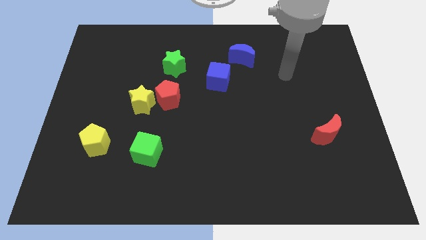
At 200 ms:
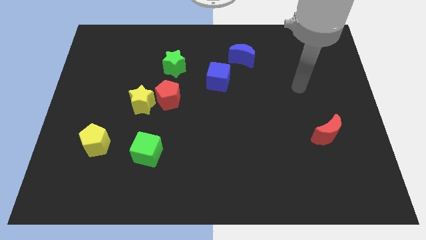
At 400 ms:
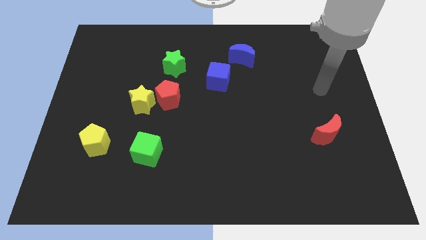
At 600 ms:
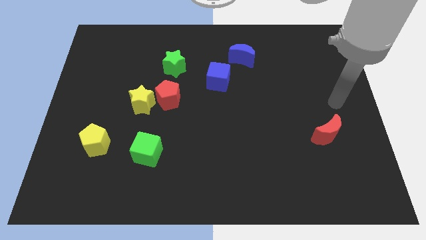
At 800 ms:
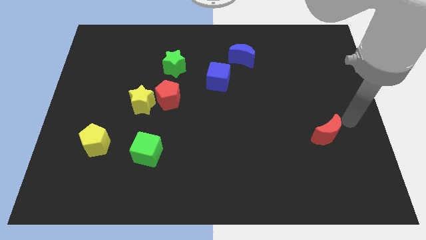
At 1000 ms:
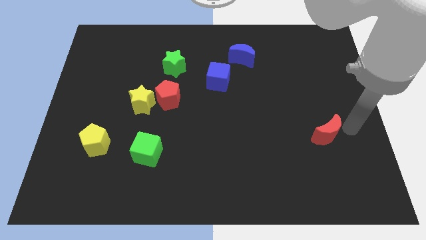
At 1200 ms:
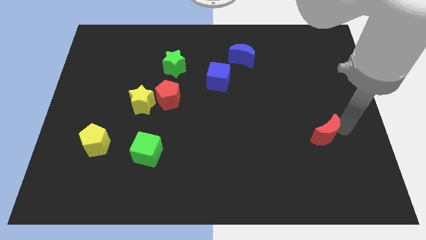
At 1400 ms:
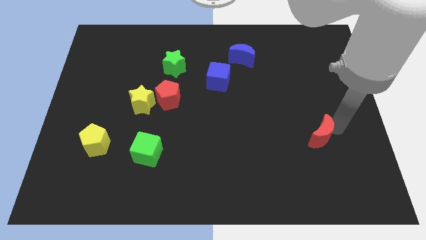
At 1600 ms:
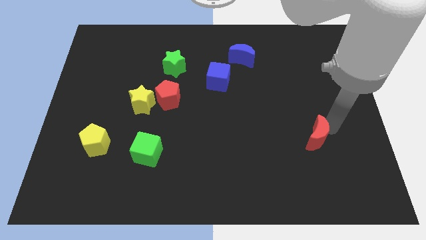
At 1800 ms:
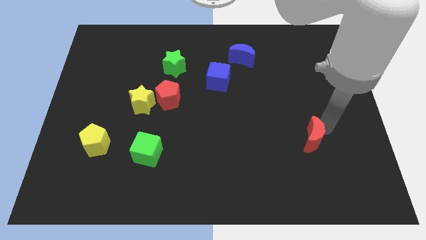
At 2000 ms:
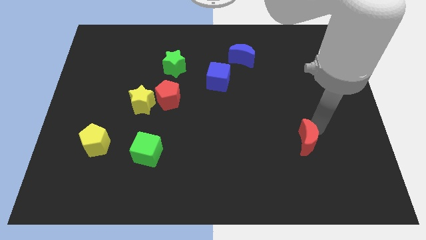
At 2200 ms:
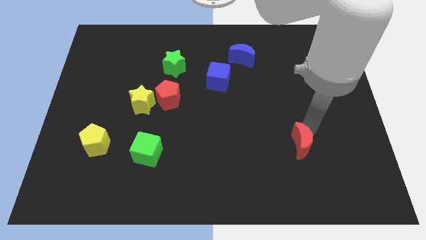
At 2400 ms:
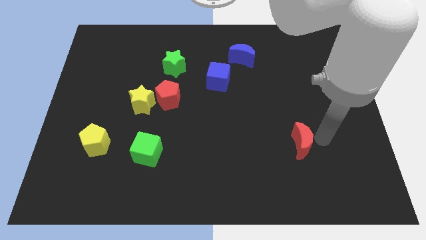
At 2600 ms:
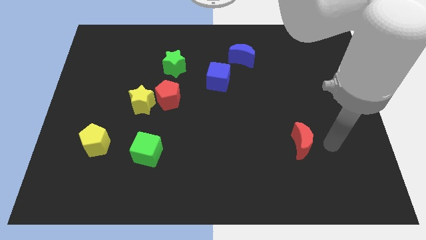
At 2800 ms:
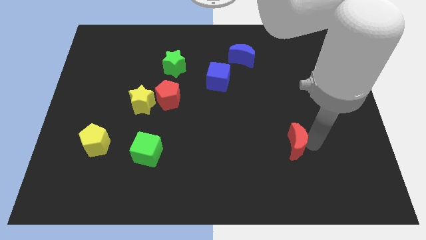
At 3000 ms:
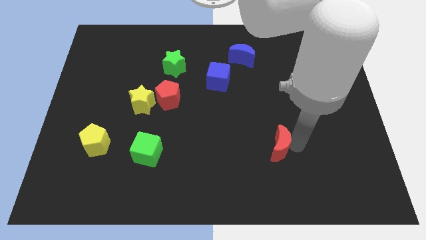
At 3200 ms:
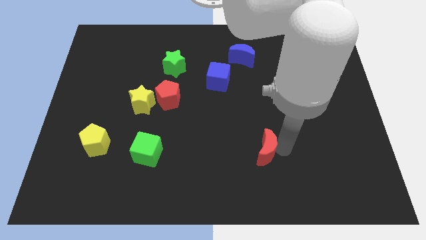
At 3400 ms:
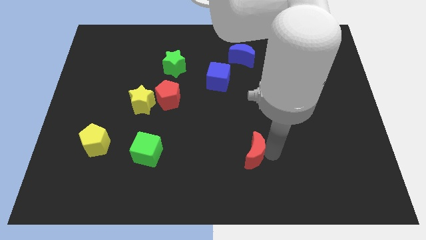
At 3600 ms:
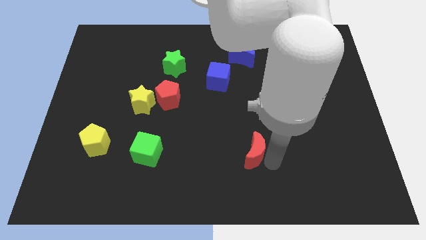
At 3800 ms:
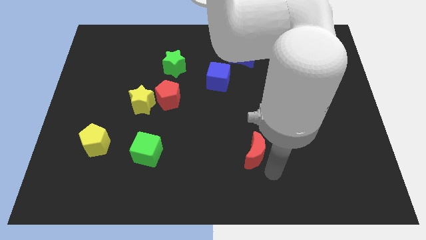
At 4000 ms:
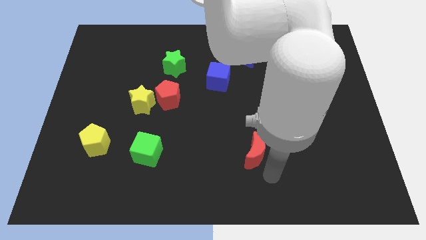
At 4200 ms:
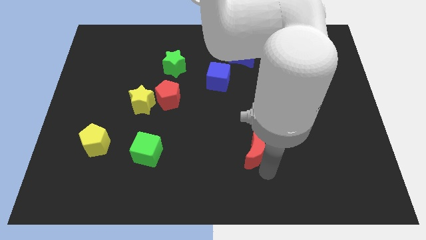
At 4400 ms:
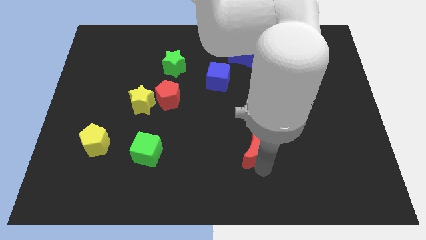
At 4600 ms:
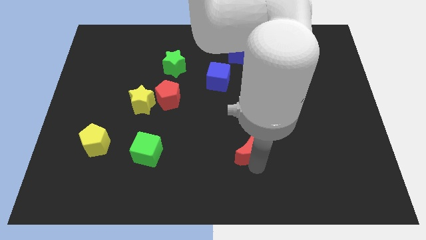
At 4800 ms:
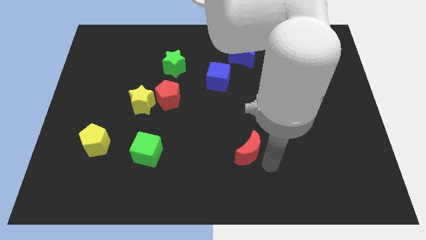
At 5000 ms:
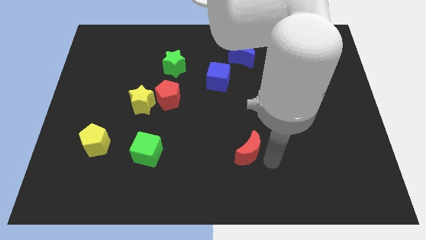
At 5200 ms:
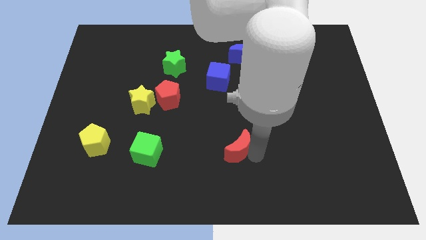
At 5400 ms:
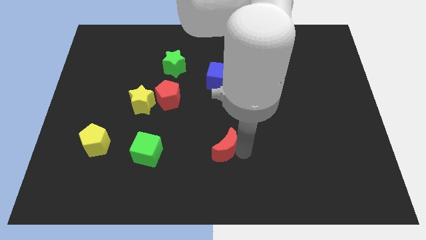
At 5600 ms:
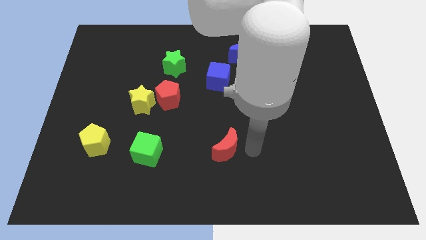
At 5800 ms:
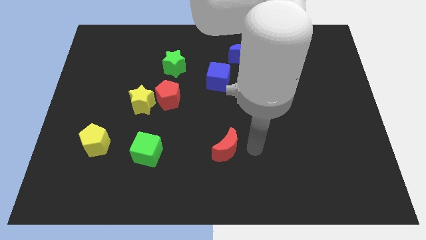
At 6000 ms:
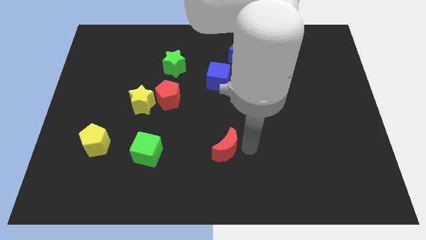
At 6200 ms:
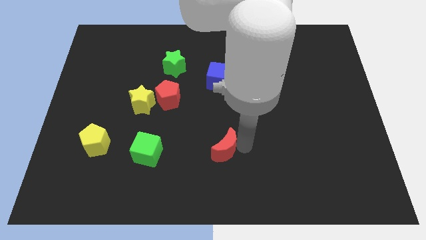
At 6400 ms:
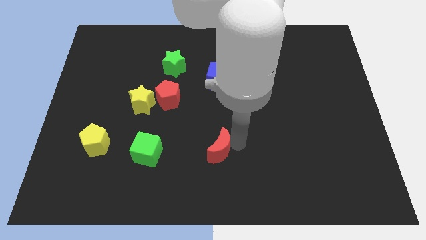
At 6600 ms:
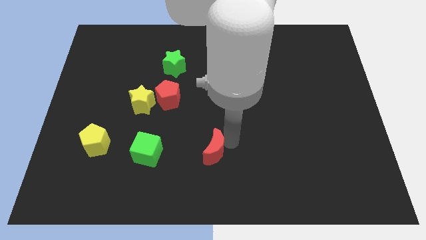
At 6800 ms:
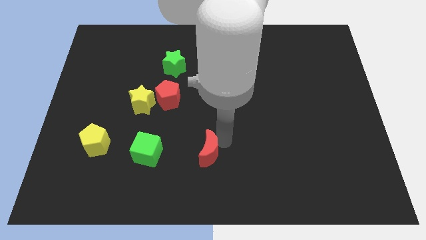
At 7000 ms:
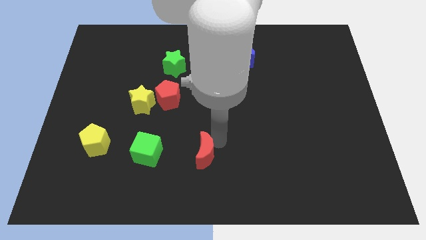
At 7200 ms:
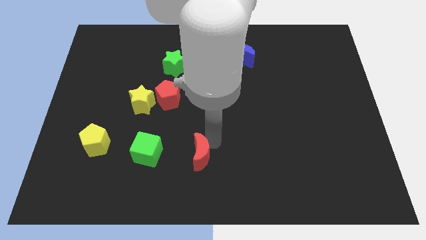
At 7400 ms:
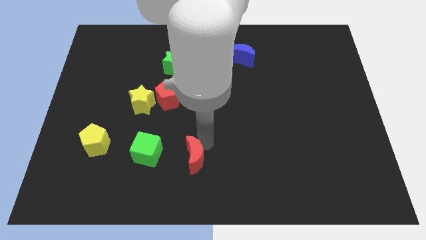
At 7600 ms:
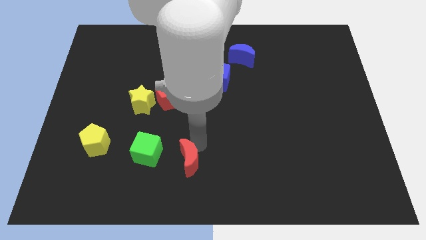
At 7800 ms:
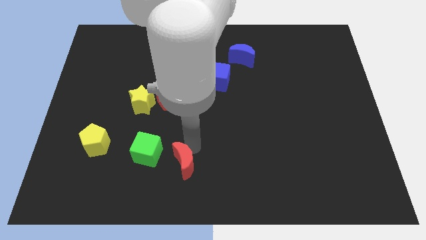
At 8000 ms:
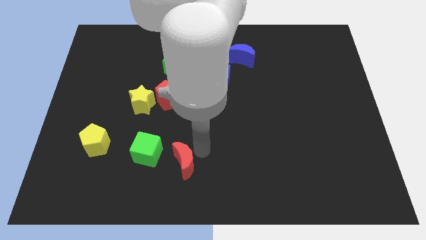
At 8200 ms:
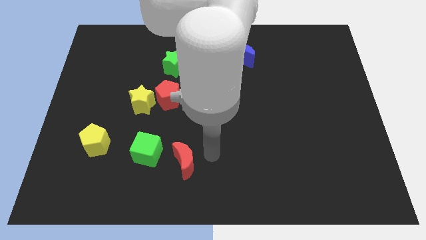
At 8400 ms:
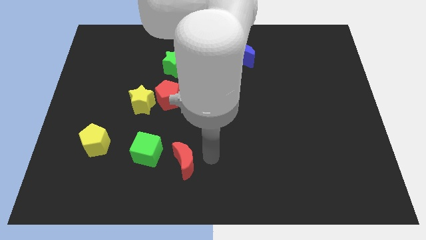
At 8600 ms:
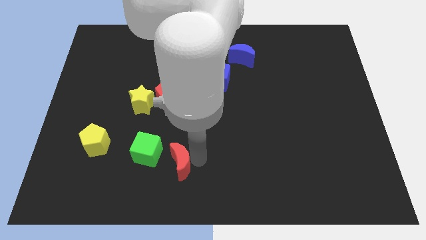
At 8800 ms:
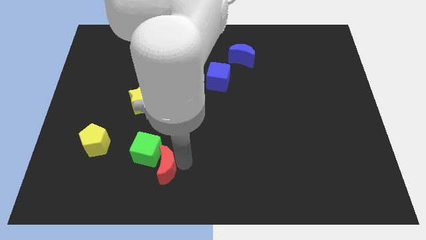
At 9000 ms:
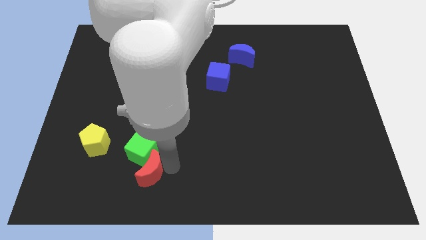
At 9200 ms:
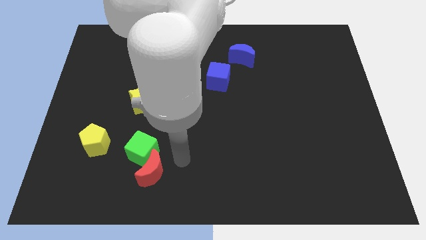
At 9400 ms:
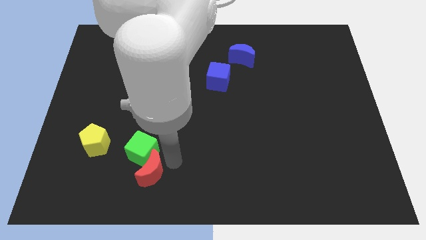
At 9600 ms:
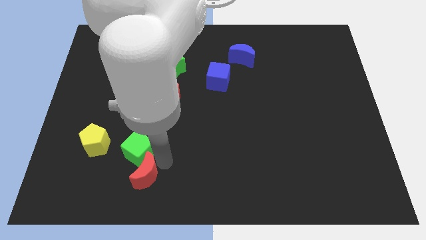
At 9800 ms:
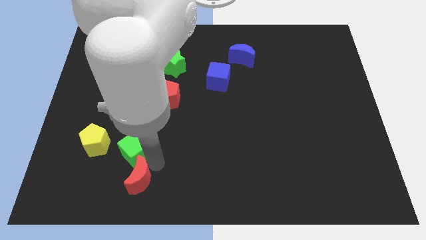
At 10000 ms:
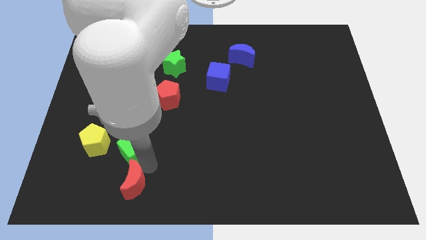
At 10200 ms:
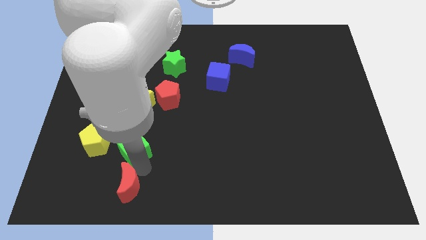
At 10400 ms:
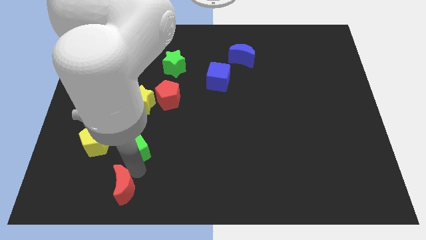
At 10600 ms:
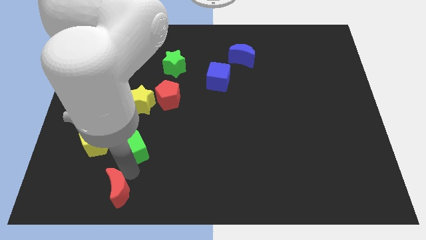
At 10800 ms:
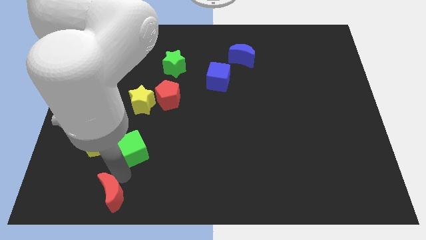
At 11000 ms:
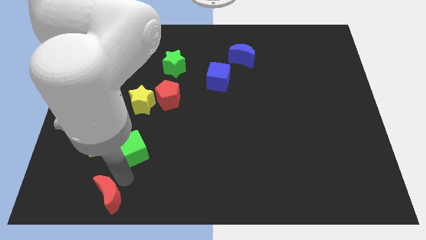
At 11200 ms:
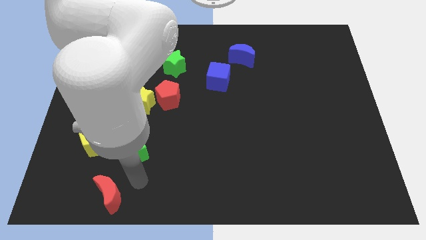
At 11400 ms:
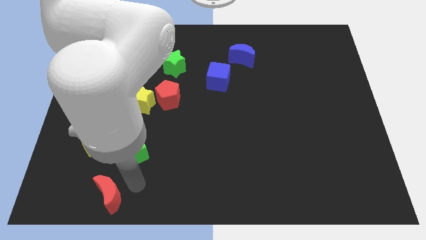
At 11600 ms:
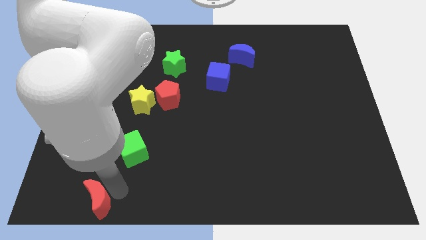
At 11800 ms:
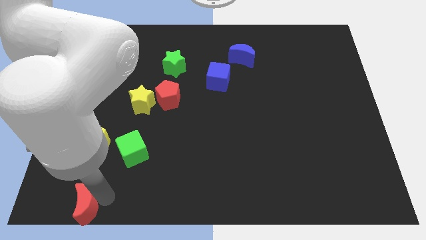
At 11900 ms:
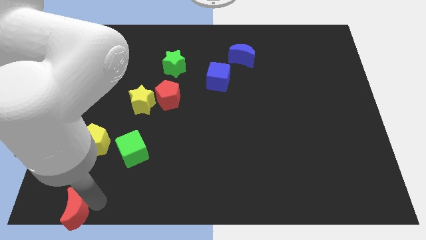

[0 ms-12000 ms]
slide the red moon to the lower left corner

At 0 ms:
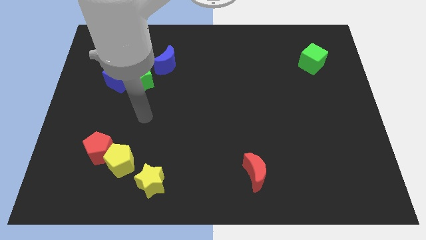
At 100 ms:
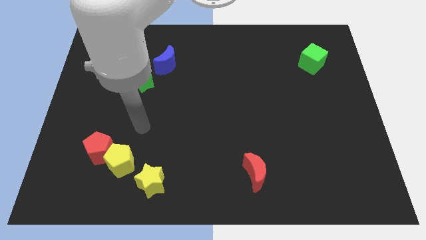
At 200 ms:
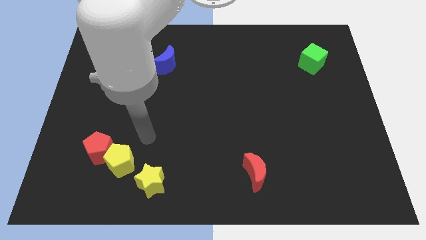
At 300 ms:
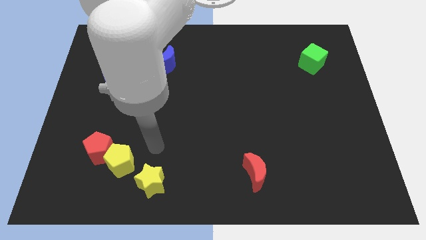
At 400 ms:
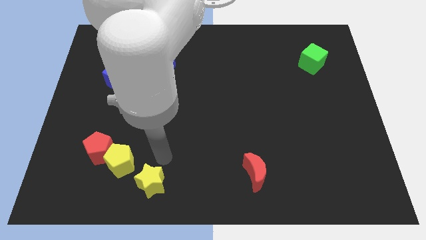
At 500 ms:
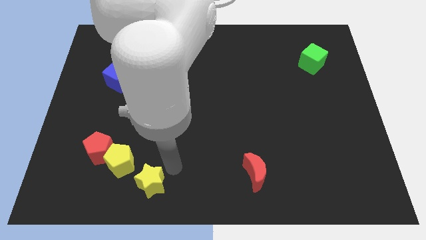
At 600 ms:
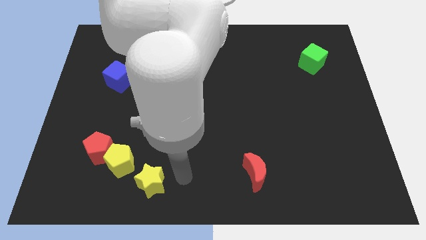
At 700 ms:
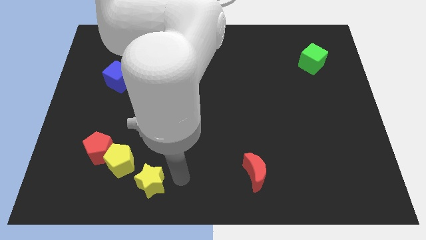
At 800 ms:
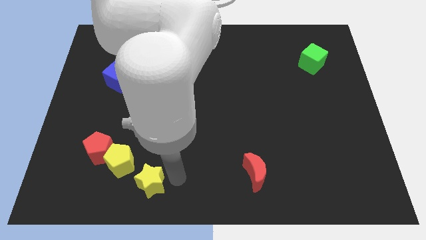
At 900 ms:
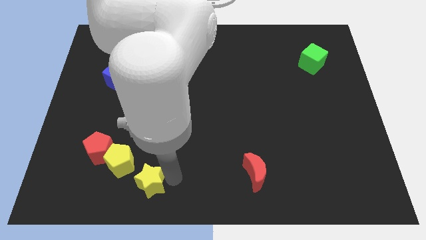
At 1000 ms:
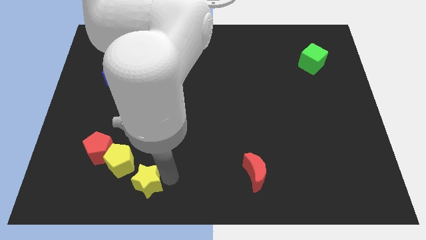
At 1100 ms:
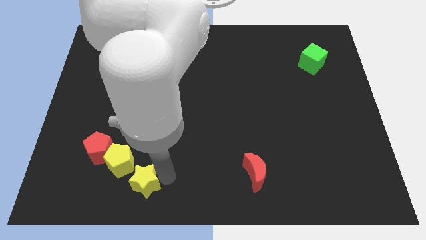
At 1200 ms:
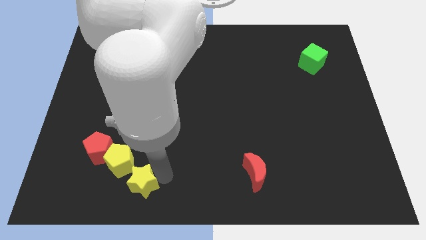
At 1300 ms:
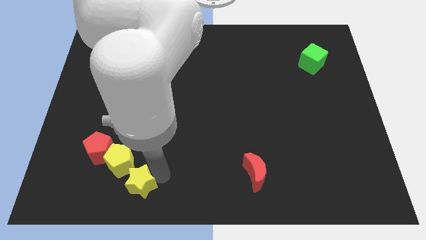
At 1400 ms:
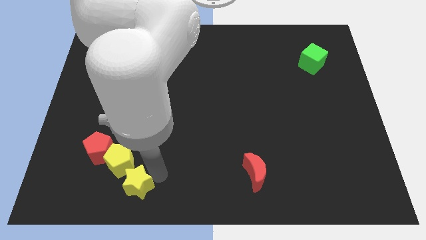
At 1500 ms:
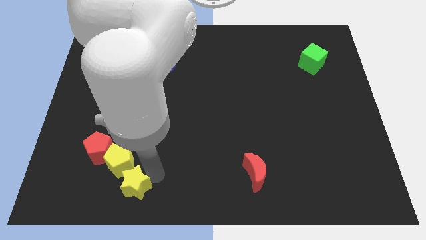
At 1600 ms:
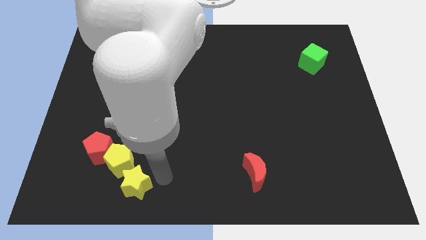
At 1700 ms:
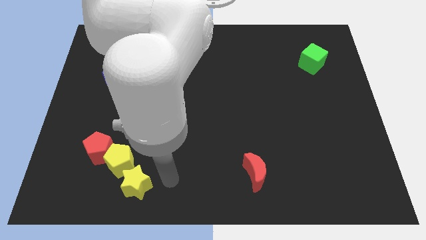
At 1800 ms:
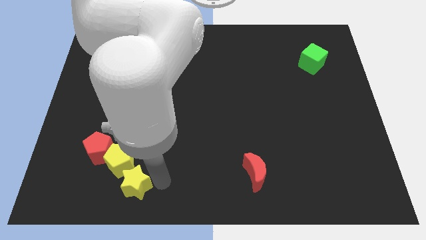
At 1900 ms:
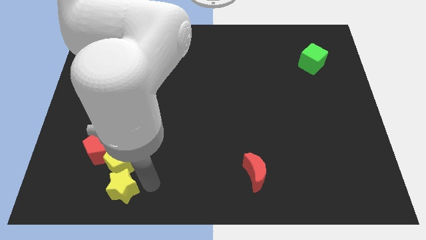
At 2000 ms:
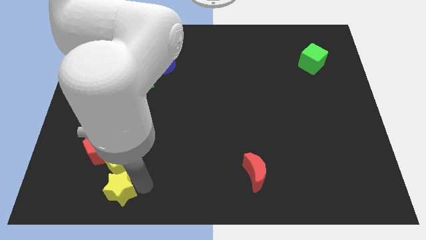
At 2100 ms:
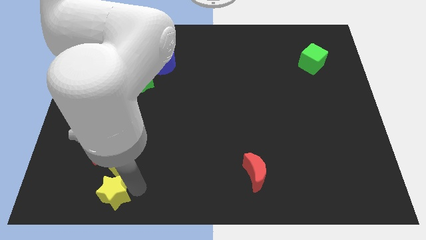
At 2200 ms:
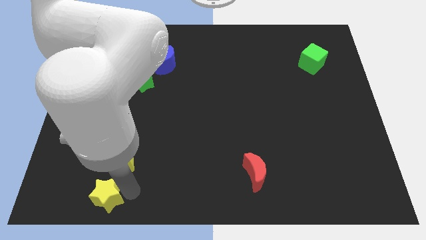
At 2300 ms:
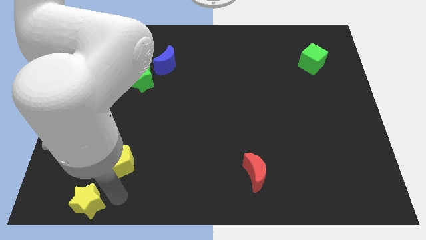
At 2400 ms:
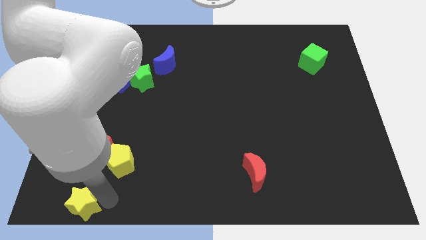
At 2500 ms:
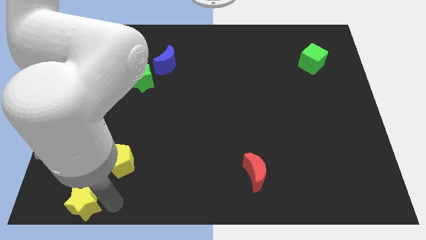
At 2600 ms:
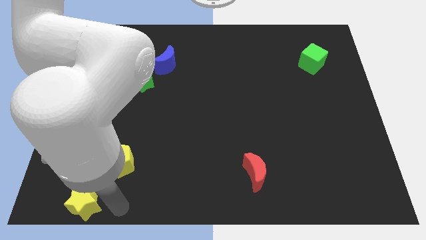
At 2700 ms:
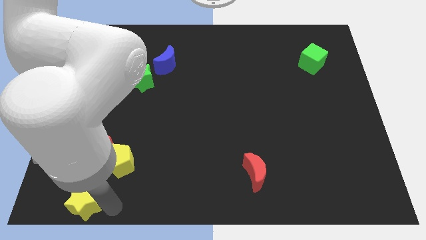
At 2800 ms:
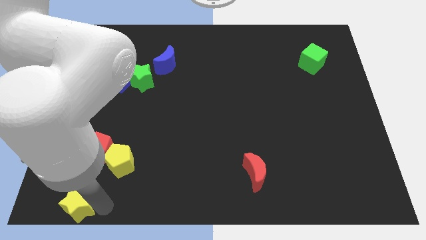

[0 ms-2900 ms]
move the yellow star to the bottom left corner
